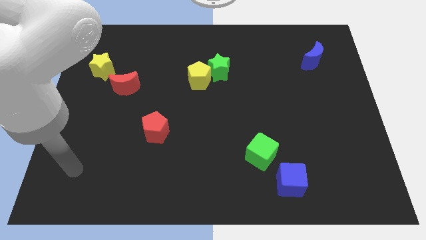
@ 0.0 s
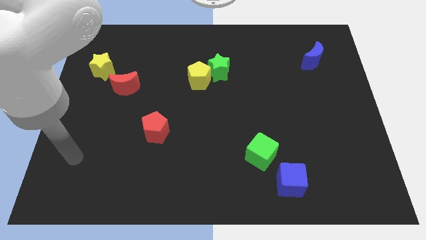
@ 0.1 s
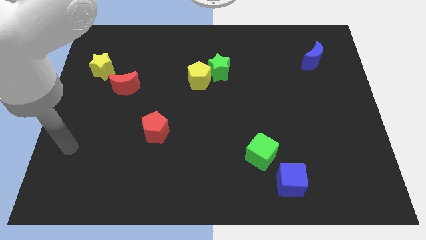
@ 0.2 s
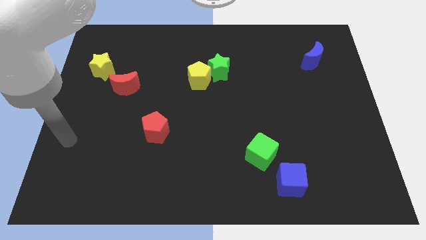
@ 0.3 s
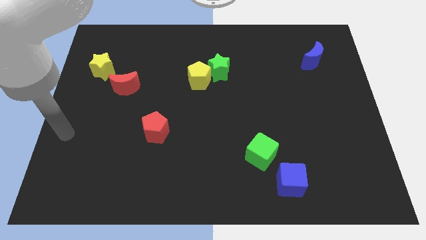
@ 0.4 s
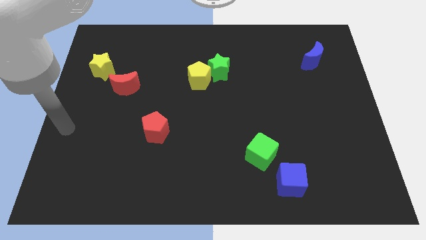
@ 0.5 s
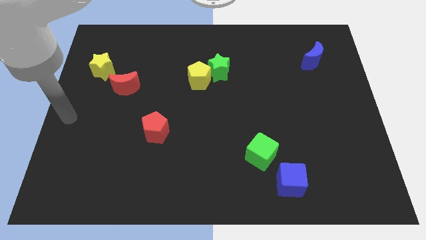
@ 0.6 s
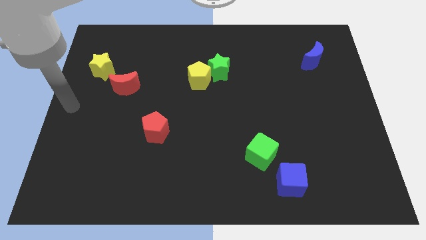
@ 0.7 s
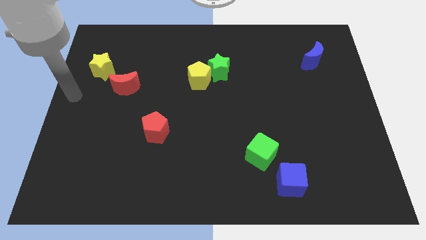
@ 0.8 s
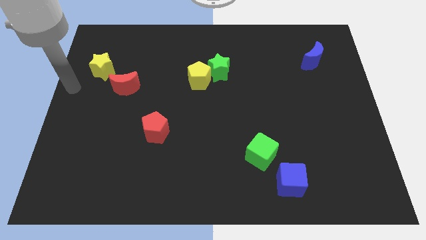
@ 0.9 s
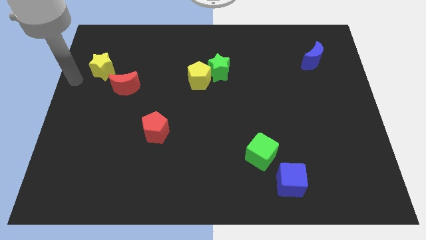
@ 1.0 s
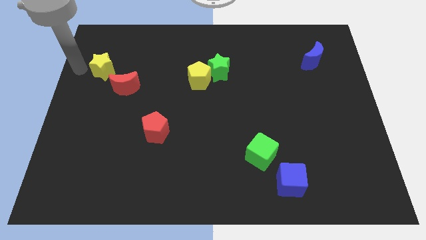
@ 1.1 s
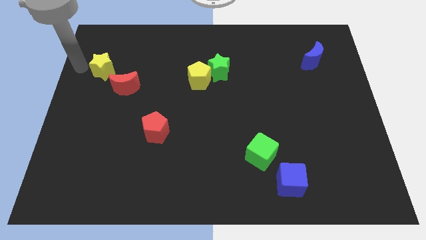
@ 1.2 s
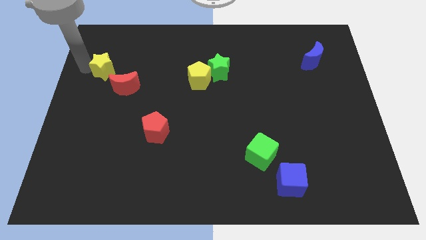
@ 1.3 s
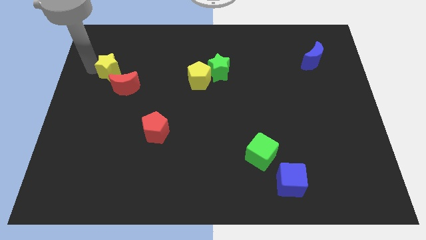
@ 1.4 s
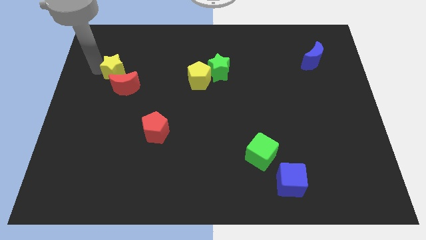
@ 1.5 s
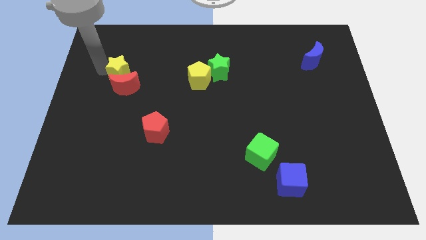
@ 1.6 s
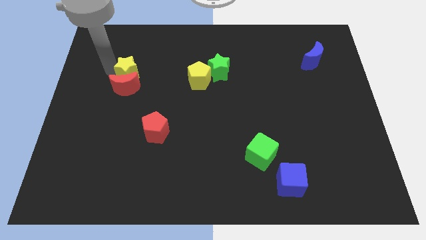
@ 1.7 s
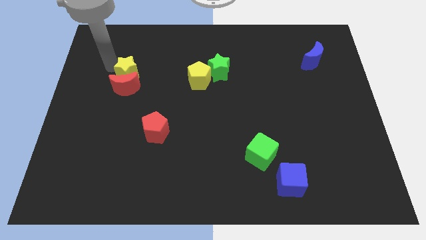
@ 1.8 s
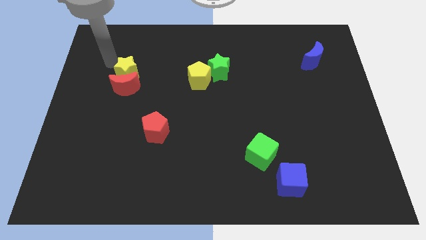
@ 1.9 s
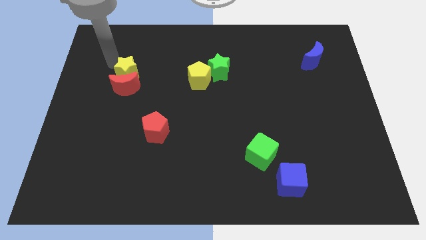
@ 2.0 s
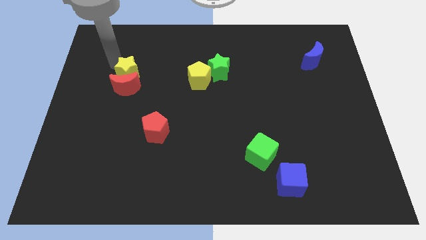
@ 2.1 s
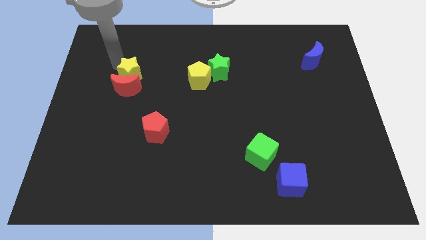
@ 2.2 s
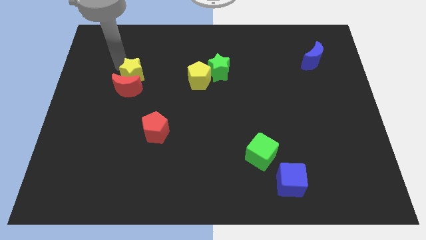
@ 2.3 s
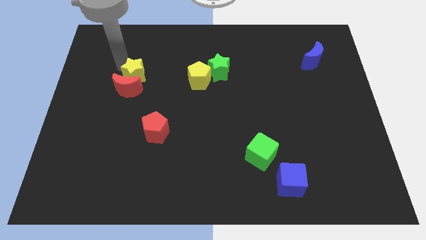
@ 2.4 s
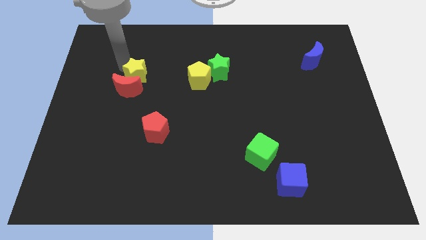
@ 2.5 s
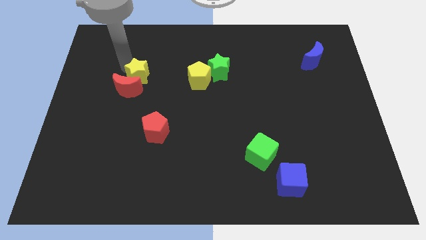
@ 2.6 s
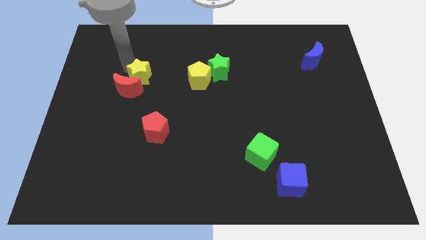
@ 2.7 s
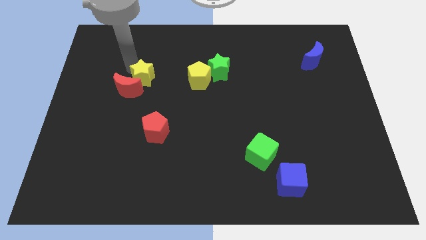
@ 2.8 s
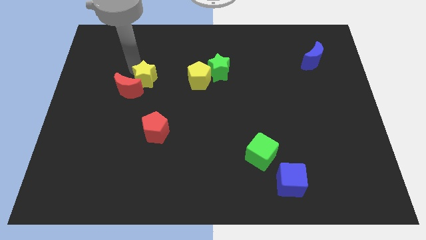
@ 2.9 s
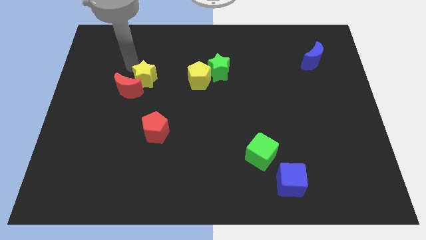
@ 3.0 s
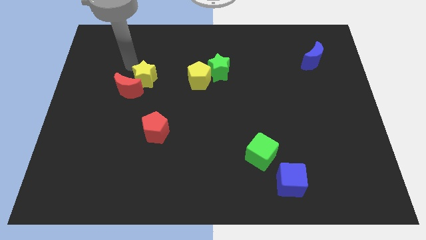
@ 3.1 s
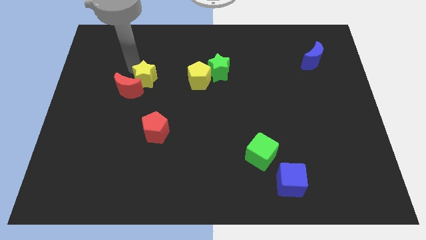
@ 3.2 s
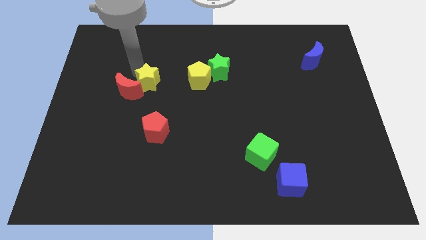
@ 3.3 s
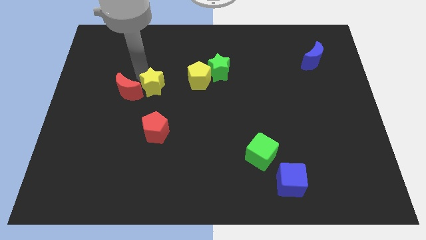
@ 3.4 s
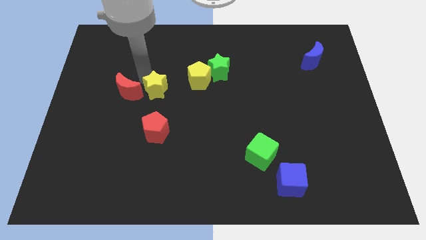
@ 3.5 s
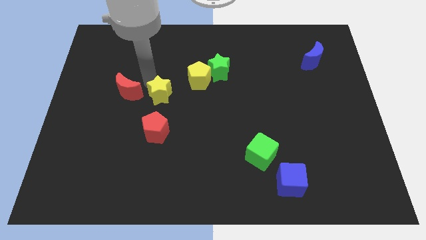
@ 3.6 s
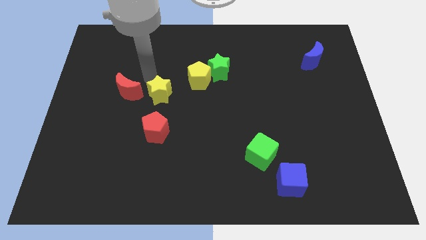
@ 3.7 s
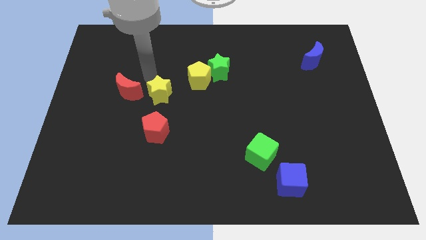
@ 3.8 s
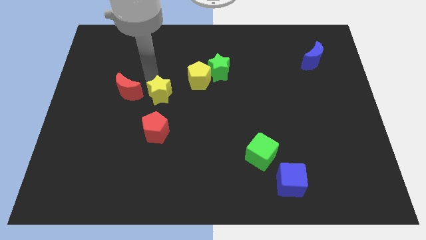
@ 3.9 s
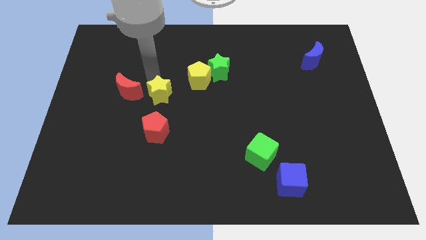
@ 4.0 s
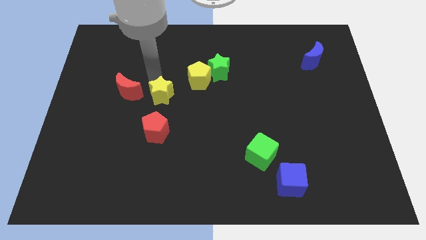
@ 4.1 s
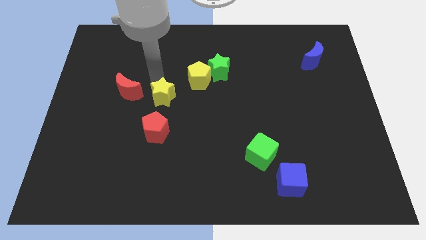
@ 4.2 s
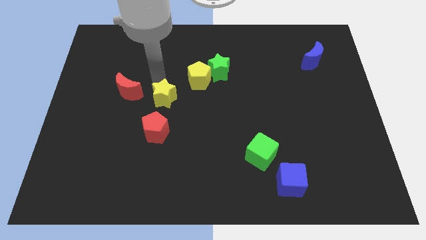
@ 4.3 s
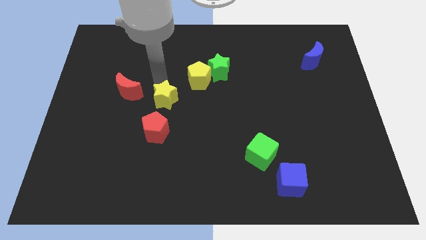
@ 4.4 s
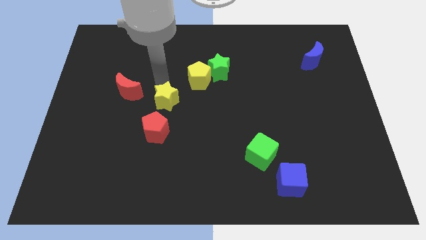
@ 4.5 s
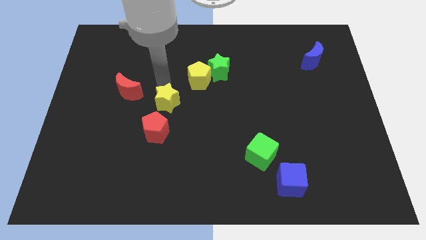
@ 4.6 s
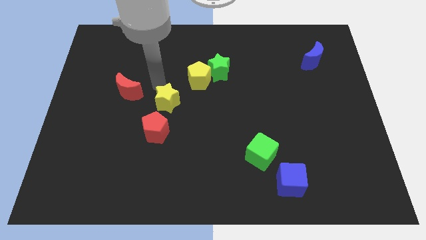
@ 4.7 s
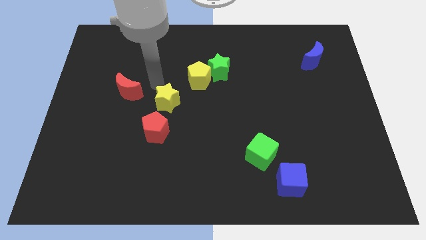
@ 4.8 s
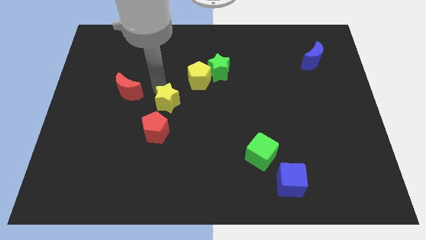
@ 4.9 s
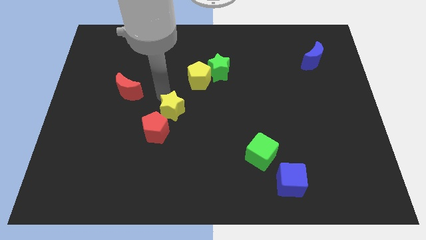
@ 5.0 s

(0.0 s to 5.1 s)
slide the yellow star down and right

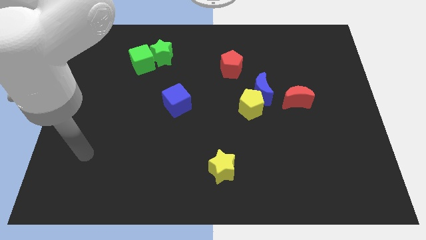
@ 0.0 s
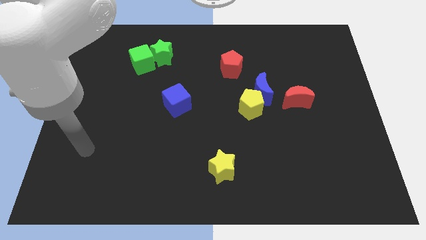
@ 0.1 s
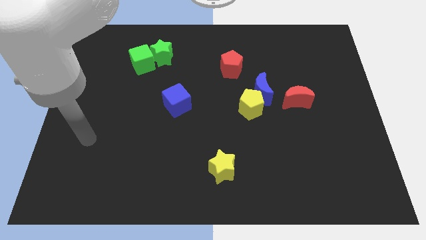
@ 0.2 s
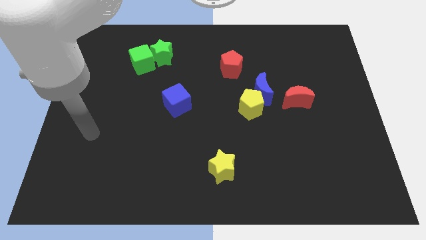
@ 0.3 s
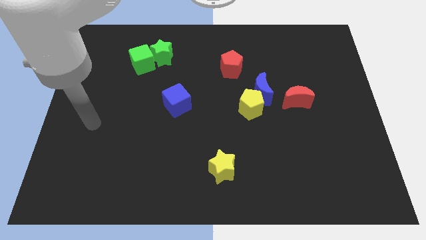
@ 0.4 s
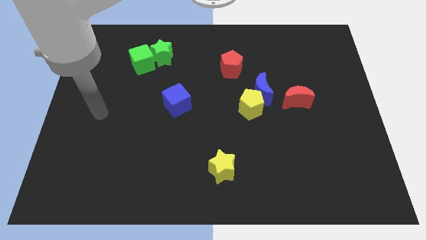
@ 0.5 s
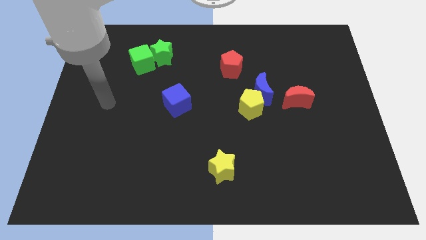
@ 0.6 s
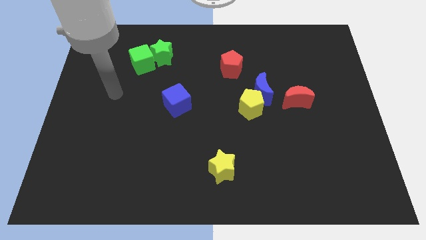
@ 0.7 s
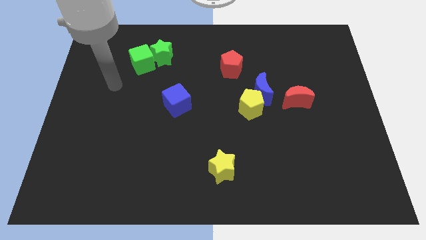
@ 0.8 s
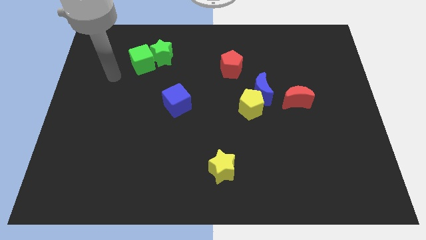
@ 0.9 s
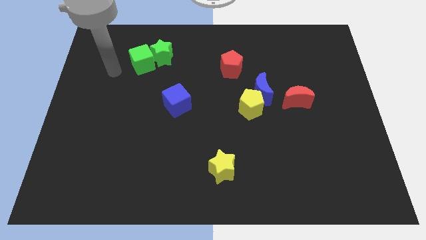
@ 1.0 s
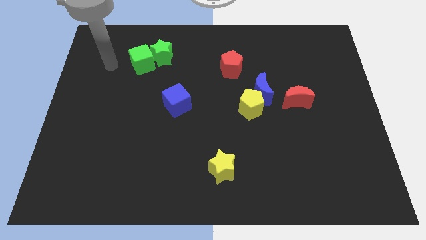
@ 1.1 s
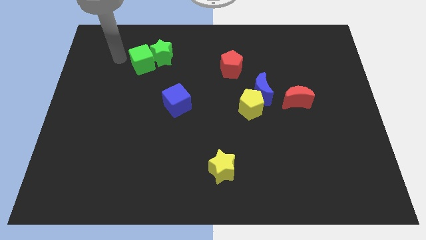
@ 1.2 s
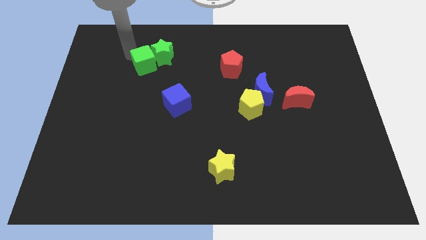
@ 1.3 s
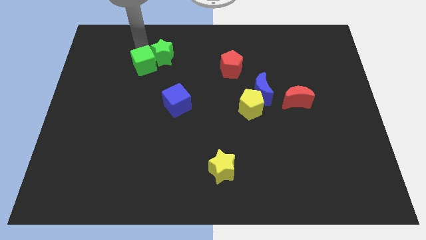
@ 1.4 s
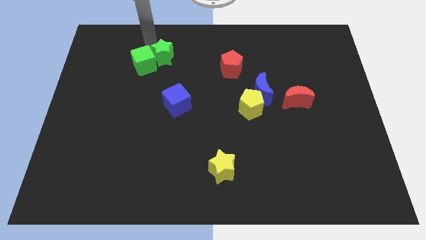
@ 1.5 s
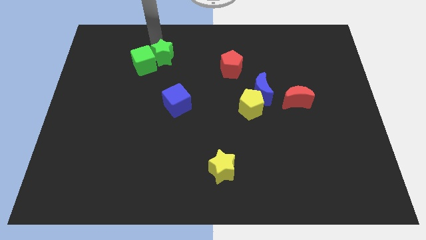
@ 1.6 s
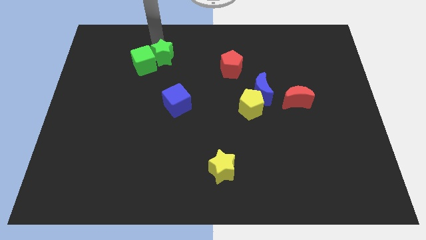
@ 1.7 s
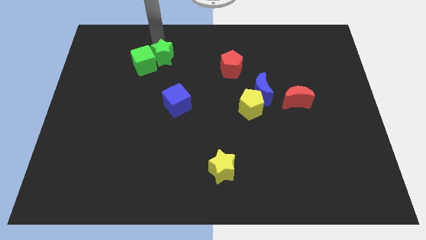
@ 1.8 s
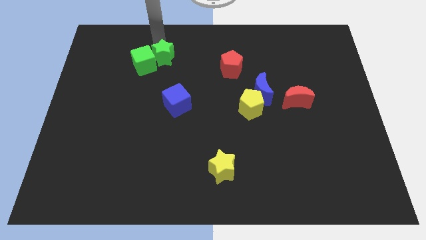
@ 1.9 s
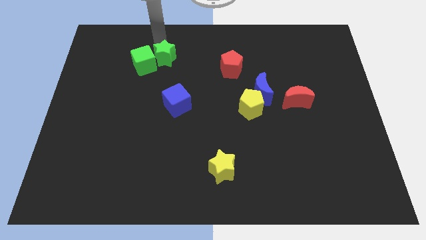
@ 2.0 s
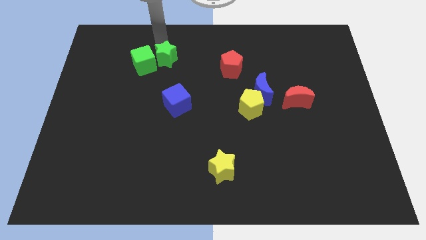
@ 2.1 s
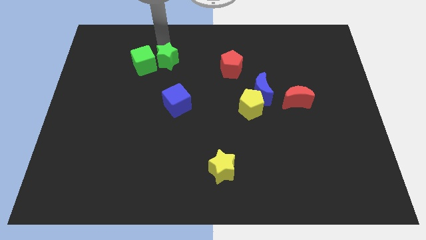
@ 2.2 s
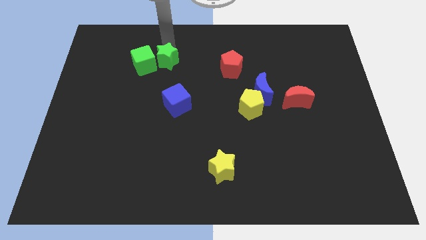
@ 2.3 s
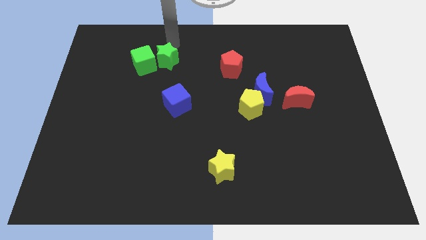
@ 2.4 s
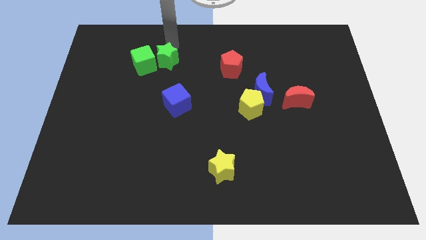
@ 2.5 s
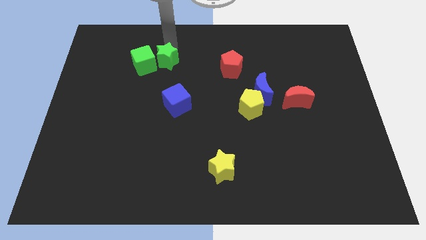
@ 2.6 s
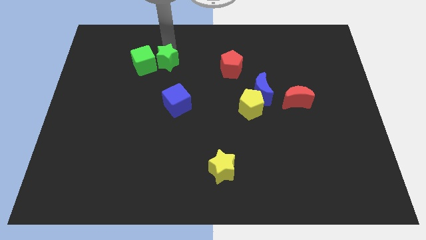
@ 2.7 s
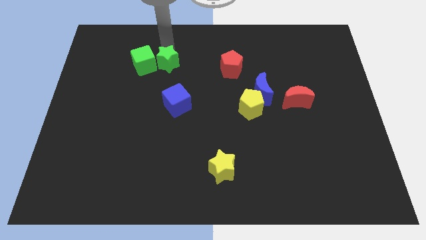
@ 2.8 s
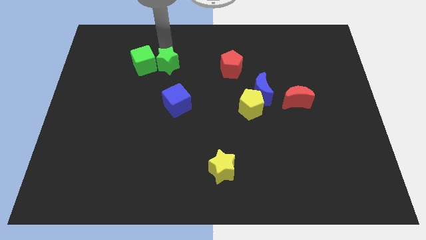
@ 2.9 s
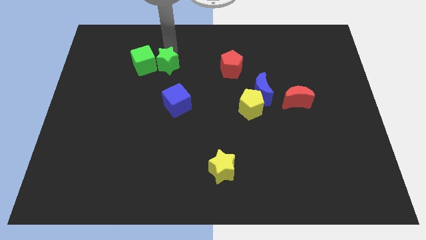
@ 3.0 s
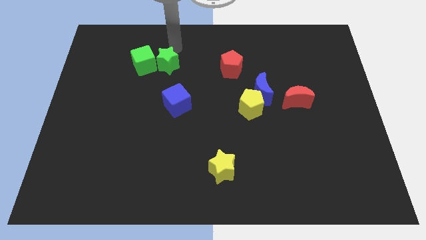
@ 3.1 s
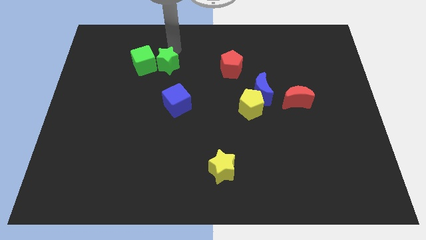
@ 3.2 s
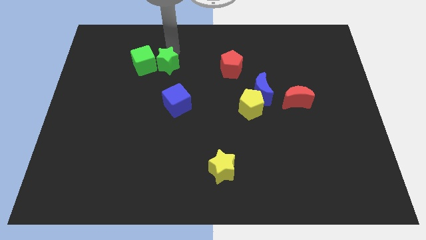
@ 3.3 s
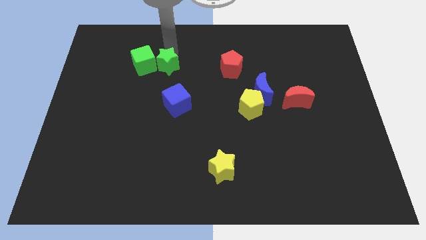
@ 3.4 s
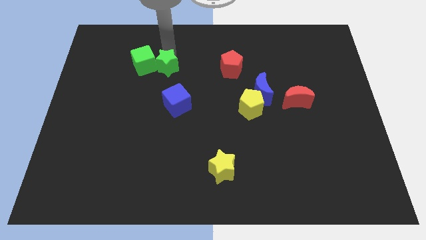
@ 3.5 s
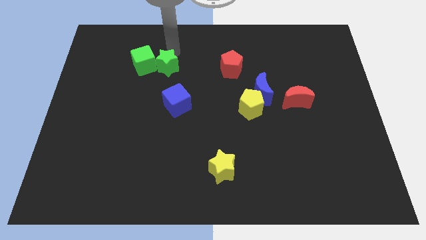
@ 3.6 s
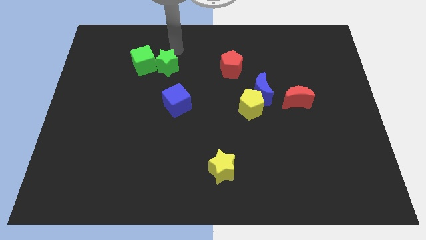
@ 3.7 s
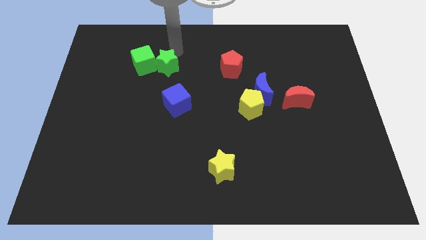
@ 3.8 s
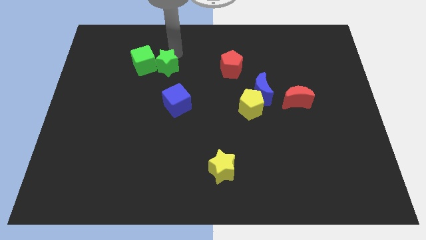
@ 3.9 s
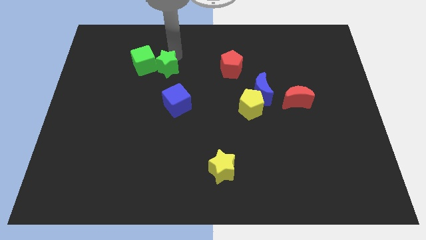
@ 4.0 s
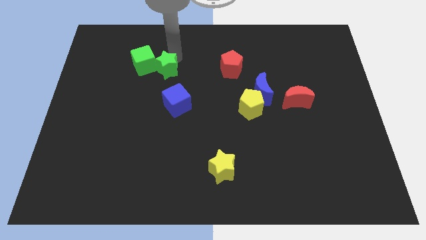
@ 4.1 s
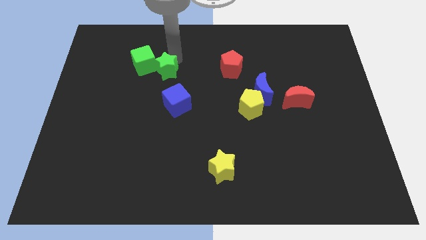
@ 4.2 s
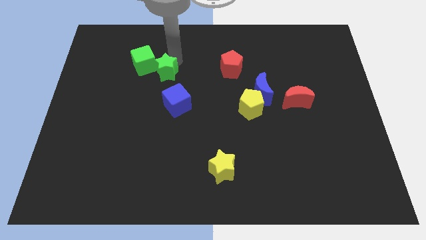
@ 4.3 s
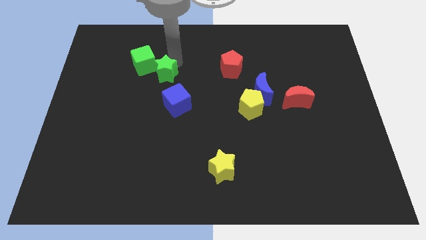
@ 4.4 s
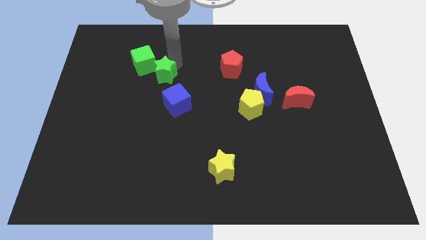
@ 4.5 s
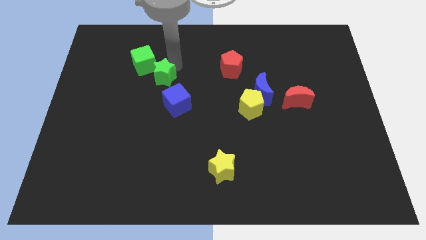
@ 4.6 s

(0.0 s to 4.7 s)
slightly push the green star downwards
